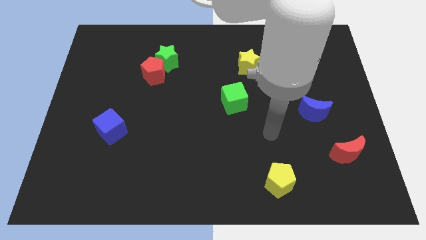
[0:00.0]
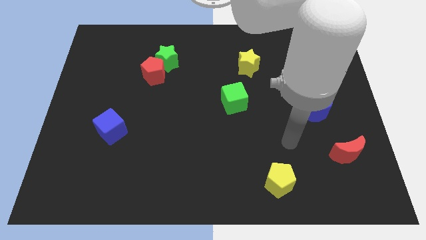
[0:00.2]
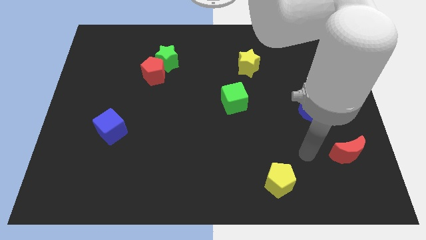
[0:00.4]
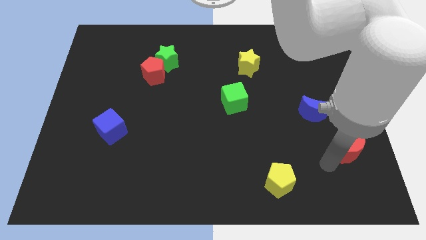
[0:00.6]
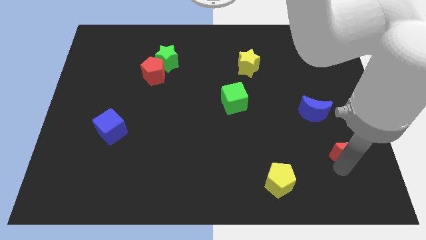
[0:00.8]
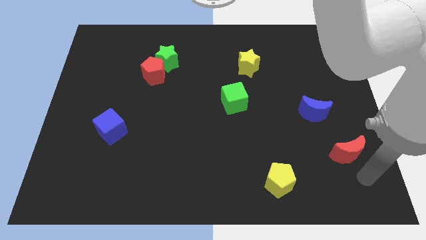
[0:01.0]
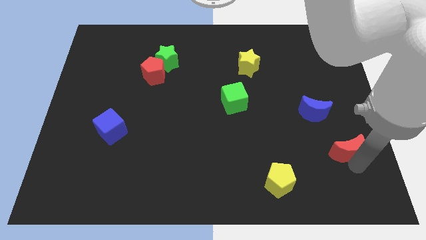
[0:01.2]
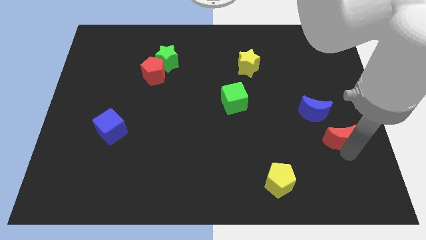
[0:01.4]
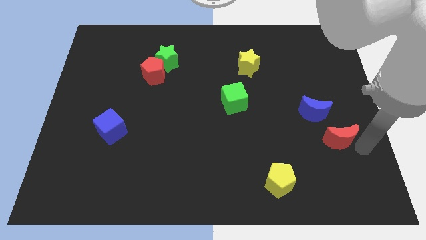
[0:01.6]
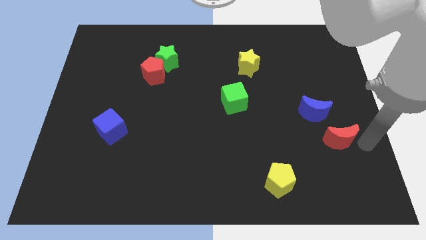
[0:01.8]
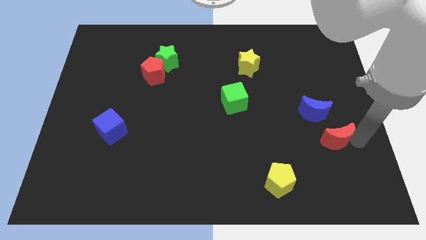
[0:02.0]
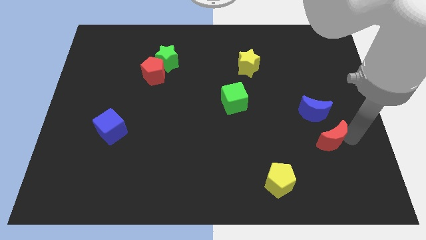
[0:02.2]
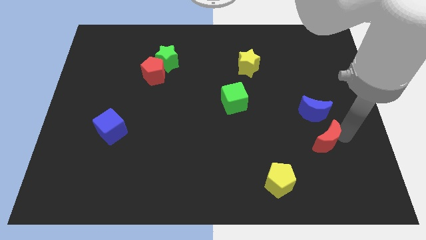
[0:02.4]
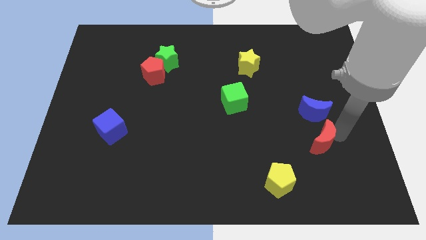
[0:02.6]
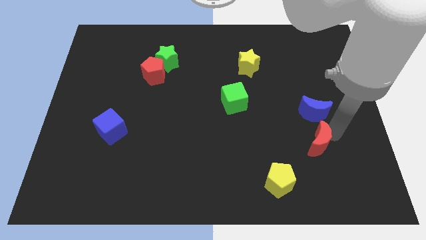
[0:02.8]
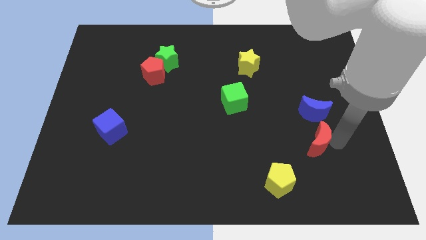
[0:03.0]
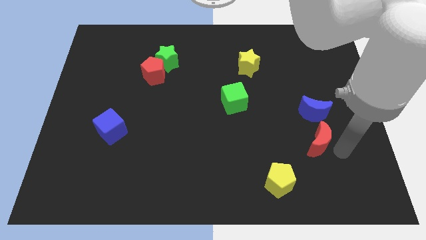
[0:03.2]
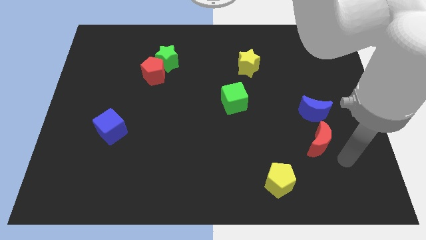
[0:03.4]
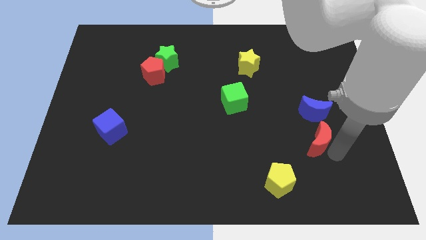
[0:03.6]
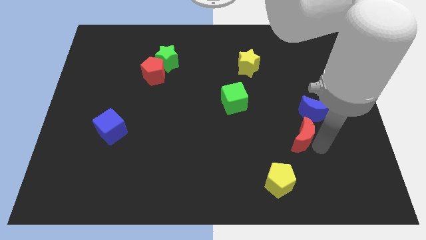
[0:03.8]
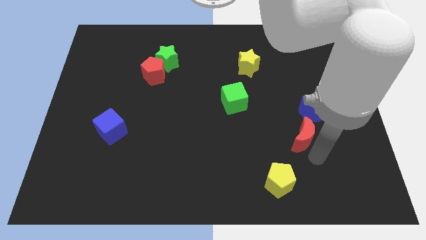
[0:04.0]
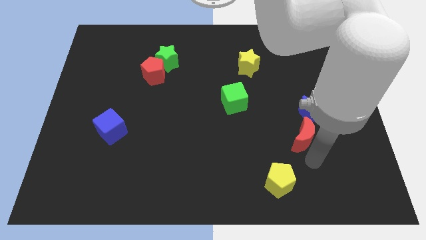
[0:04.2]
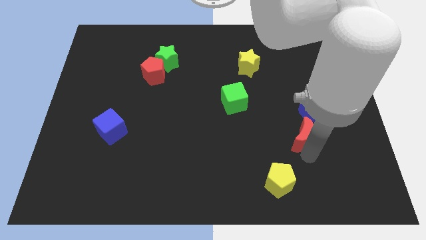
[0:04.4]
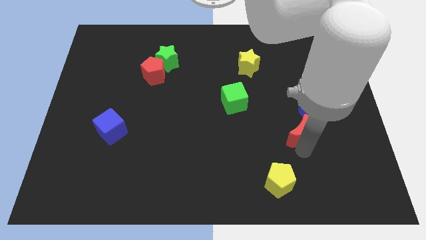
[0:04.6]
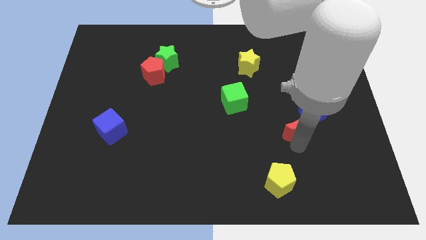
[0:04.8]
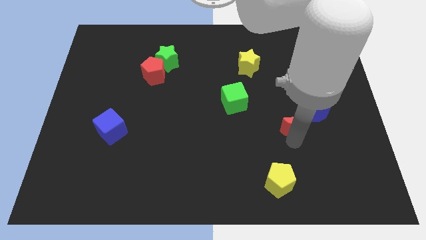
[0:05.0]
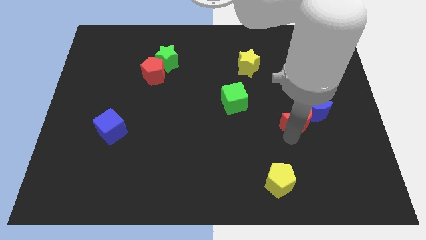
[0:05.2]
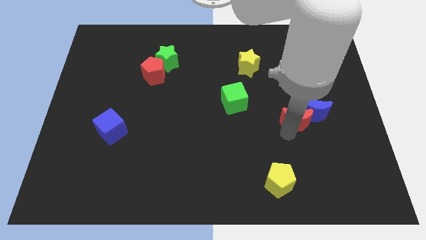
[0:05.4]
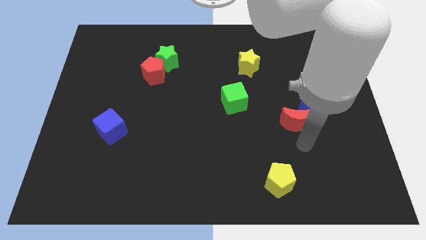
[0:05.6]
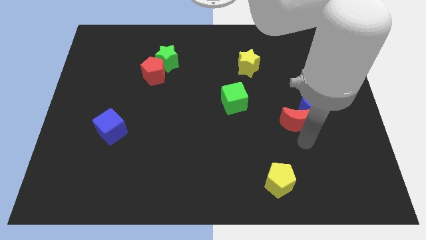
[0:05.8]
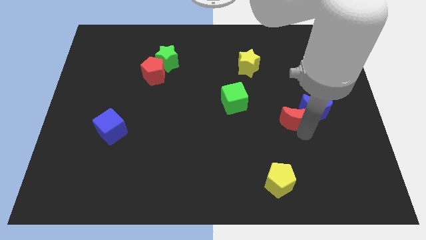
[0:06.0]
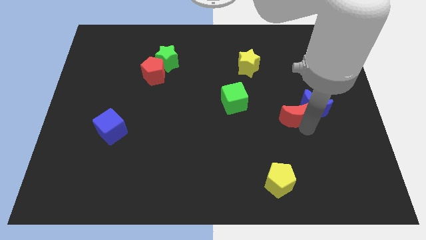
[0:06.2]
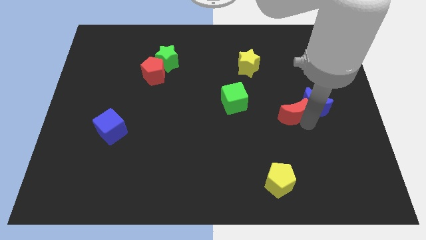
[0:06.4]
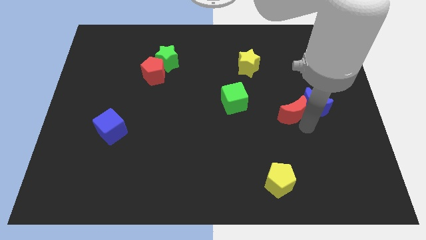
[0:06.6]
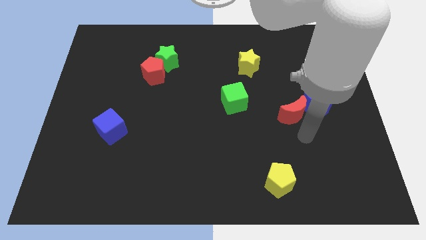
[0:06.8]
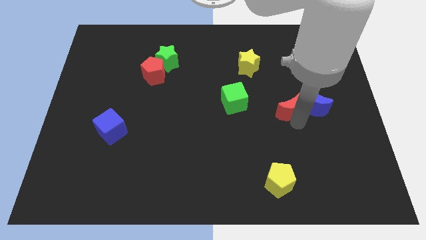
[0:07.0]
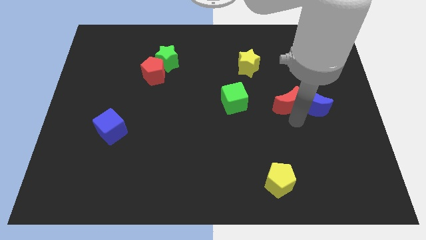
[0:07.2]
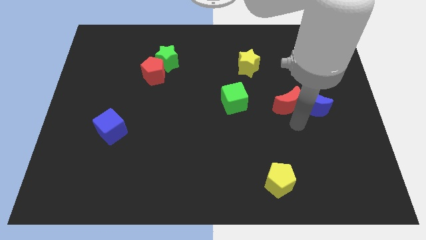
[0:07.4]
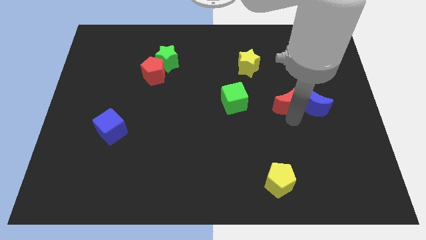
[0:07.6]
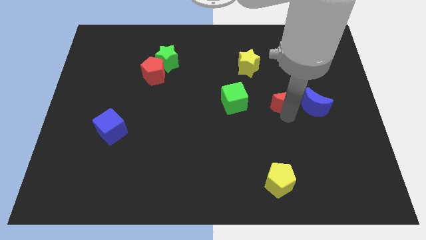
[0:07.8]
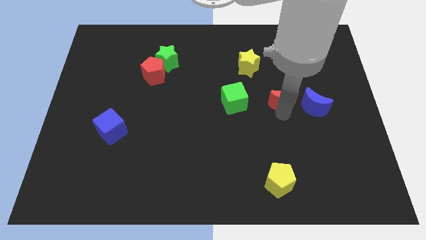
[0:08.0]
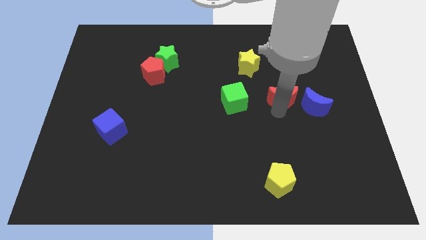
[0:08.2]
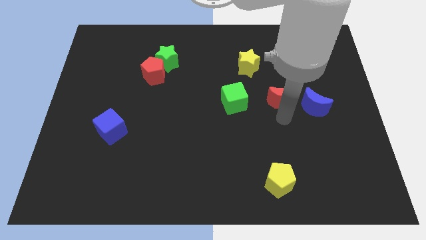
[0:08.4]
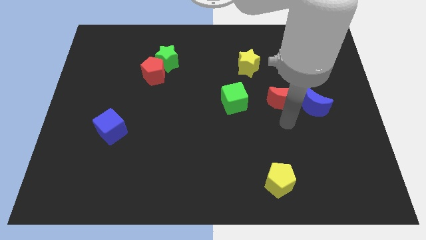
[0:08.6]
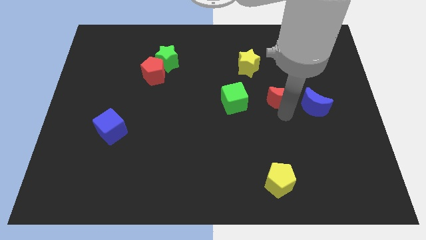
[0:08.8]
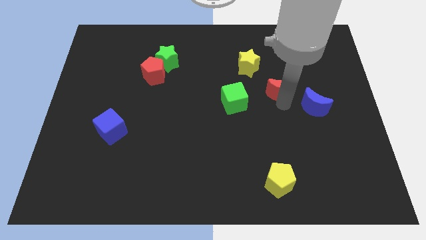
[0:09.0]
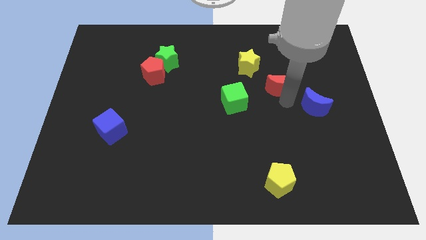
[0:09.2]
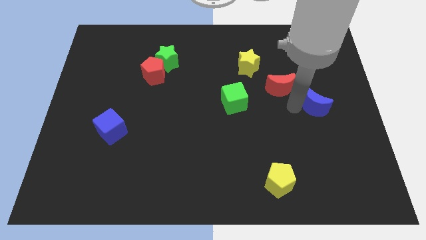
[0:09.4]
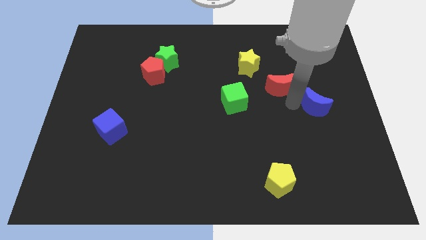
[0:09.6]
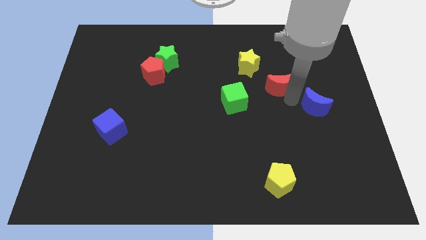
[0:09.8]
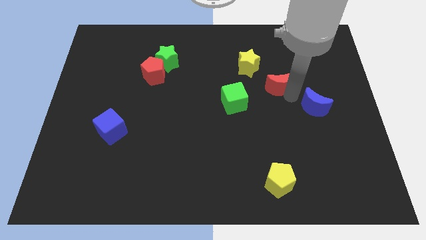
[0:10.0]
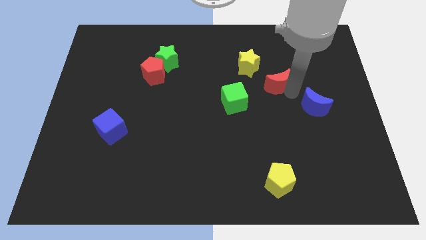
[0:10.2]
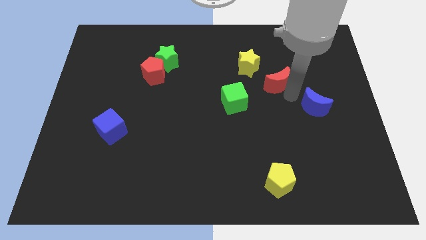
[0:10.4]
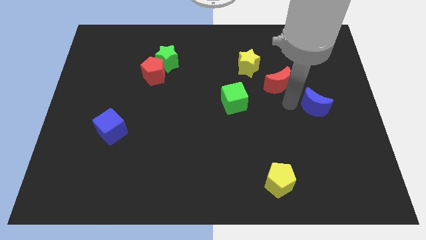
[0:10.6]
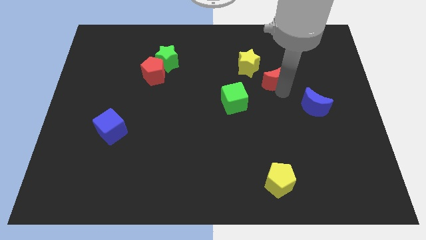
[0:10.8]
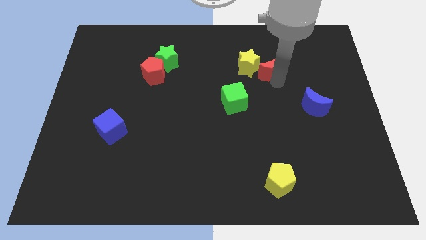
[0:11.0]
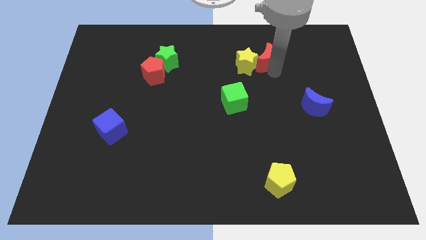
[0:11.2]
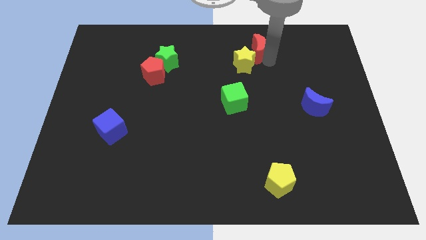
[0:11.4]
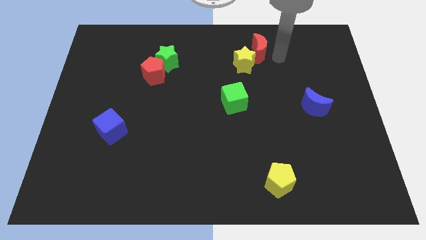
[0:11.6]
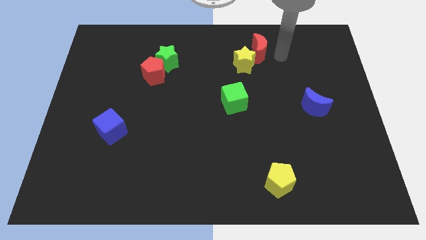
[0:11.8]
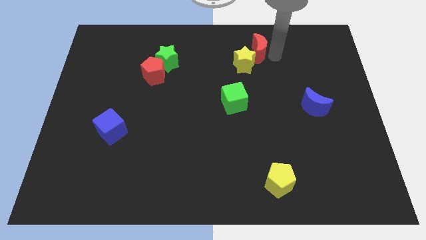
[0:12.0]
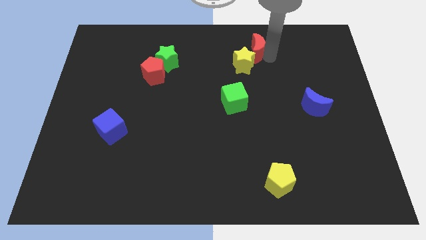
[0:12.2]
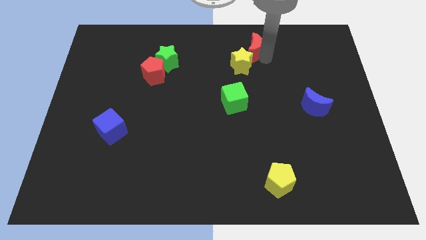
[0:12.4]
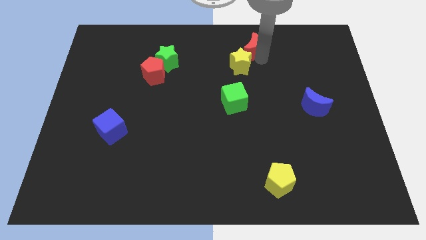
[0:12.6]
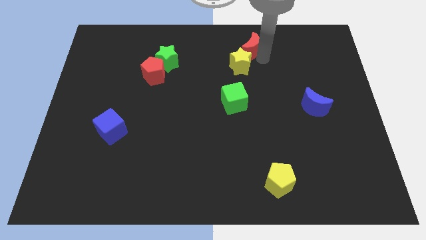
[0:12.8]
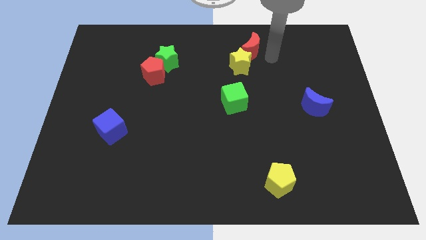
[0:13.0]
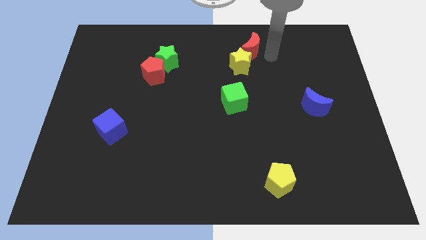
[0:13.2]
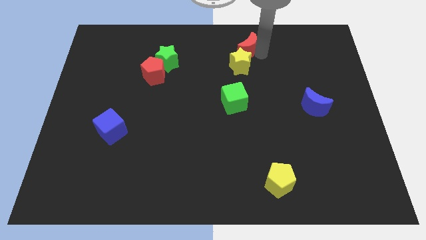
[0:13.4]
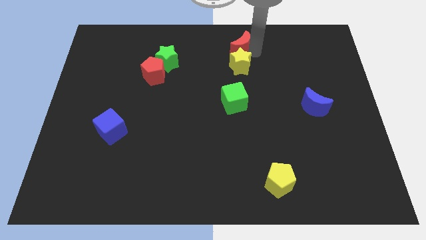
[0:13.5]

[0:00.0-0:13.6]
put the red moon to the top

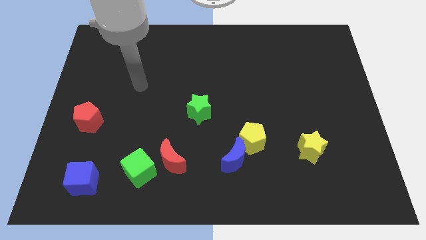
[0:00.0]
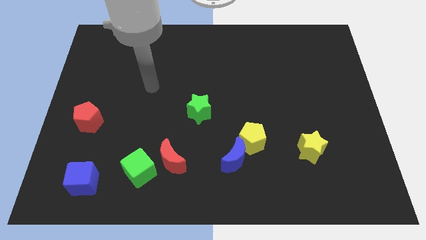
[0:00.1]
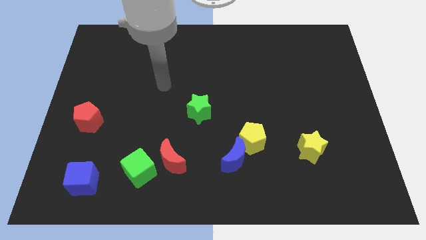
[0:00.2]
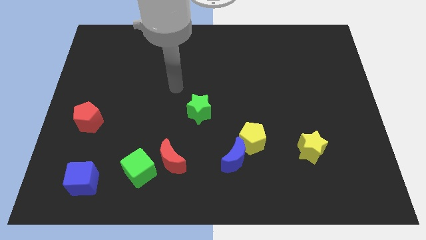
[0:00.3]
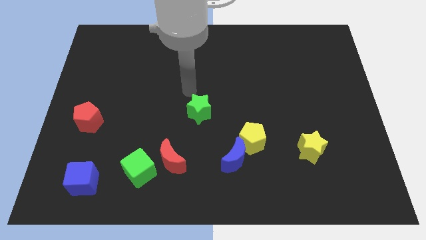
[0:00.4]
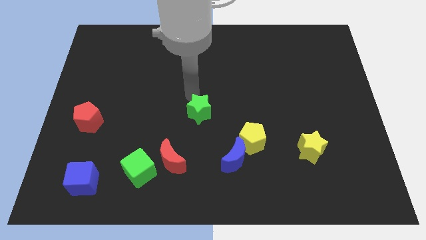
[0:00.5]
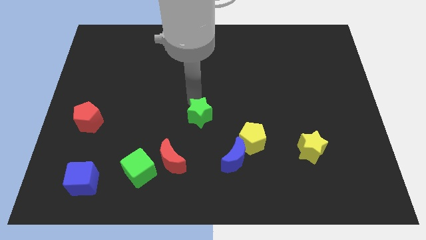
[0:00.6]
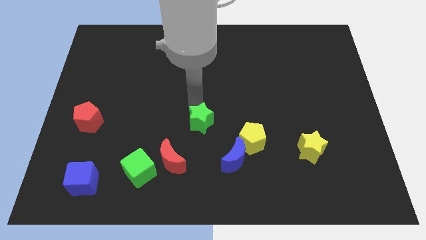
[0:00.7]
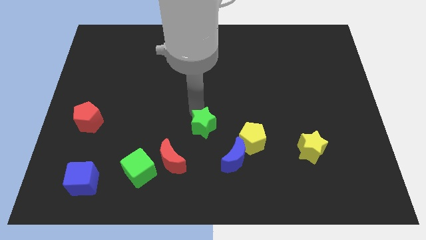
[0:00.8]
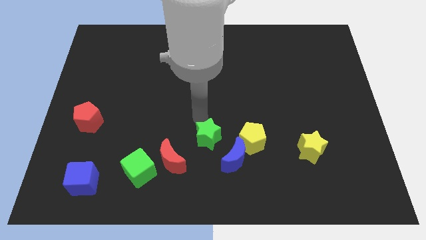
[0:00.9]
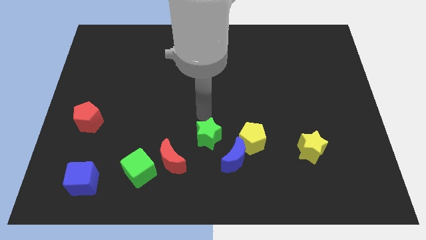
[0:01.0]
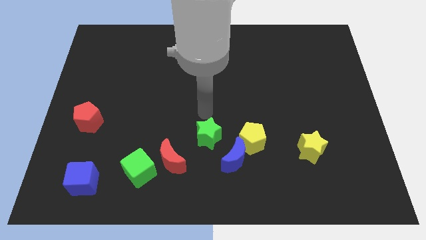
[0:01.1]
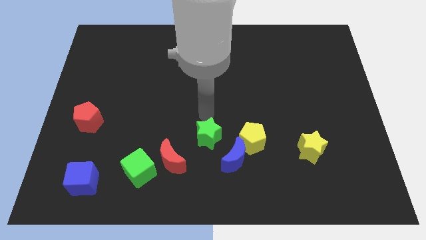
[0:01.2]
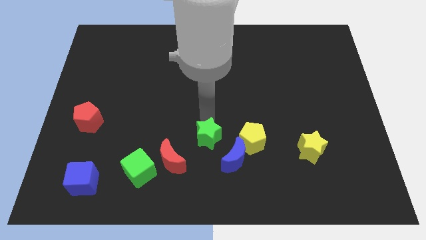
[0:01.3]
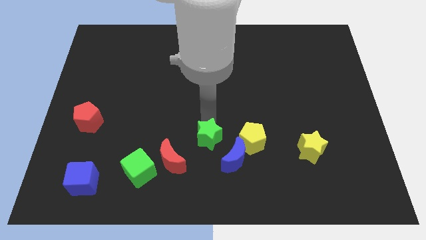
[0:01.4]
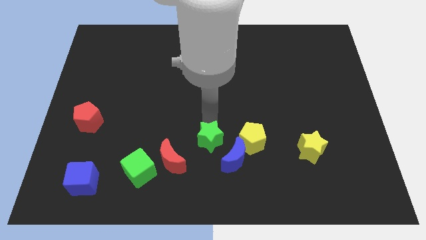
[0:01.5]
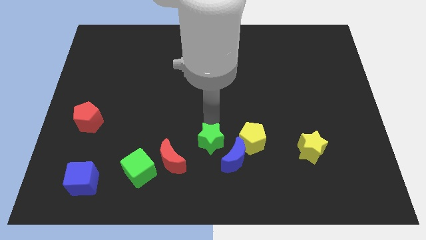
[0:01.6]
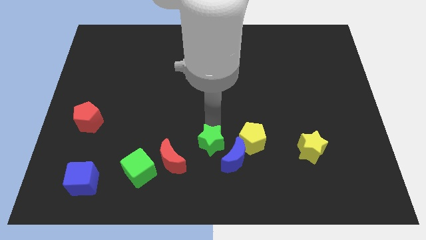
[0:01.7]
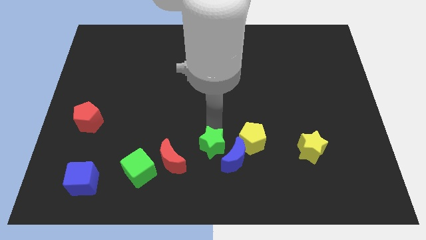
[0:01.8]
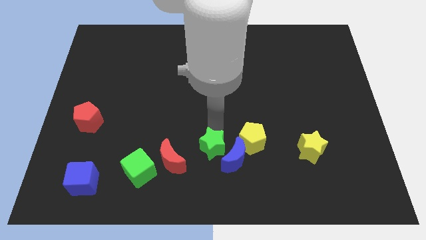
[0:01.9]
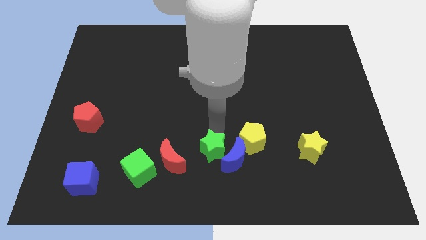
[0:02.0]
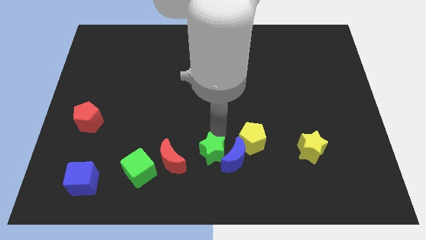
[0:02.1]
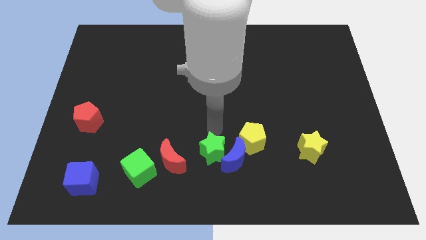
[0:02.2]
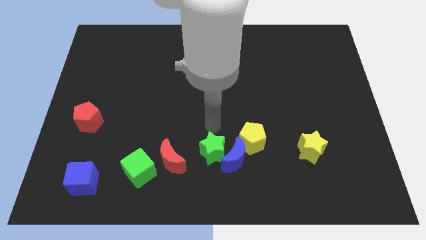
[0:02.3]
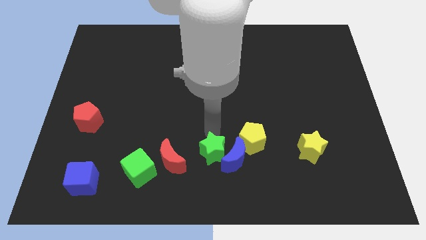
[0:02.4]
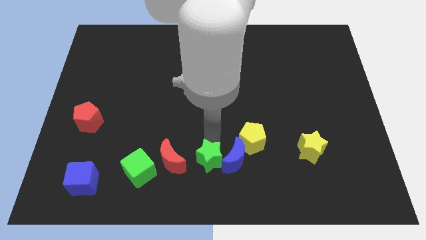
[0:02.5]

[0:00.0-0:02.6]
put the green star to the bottom
